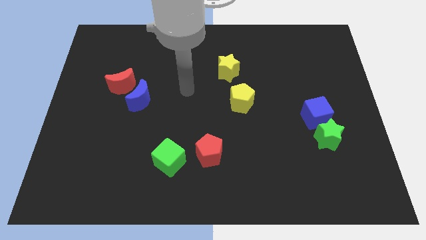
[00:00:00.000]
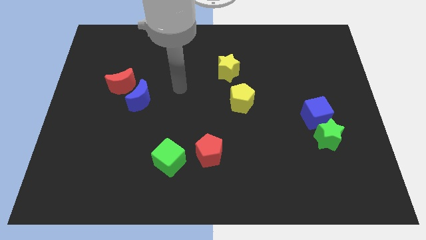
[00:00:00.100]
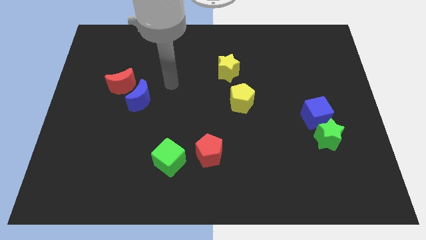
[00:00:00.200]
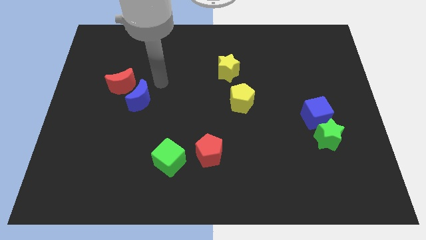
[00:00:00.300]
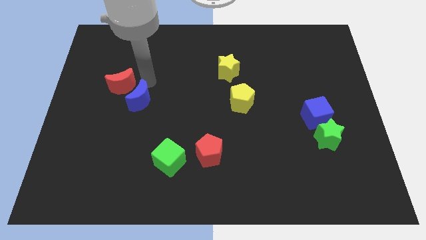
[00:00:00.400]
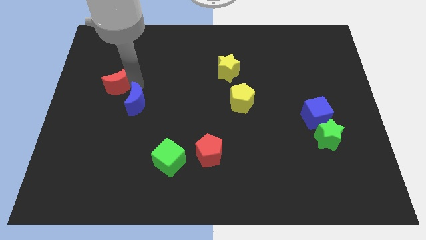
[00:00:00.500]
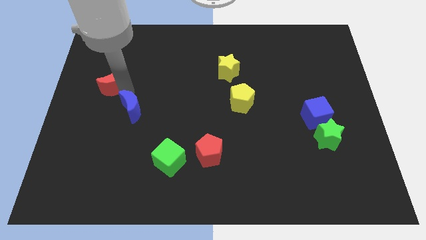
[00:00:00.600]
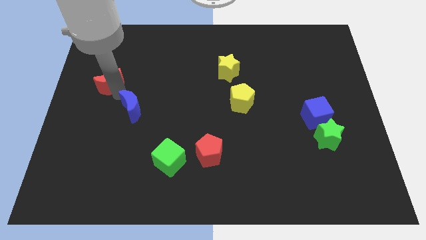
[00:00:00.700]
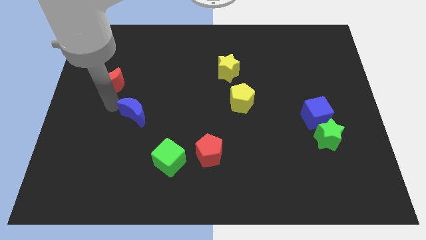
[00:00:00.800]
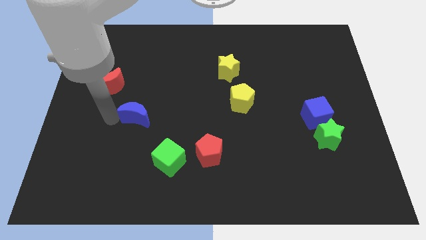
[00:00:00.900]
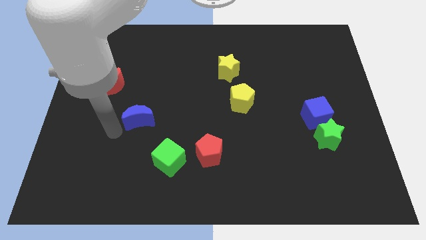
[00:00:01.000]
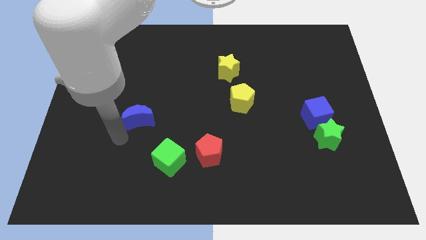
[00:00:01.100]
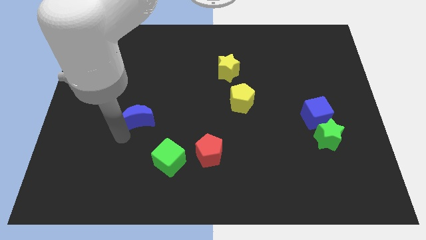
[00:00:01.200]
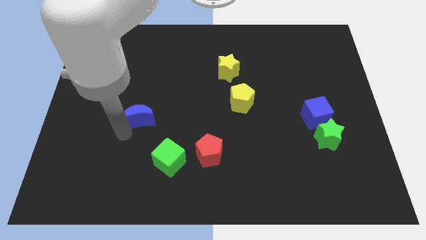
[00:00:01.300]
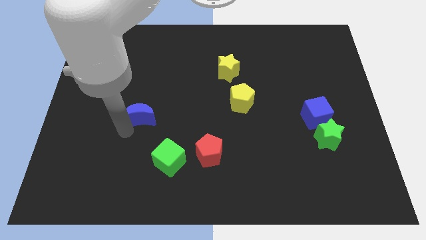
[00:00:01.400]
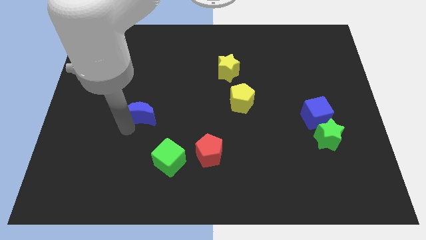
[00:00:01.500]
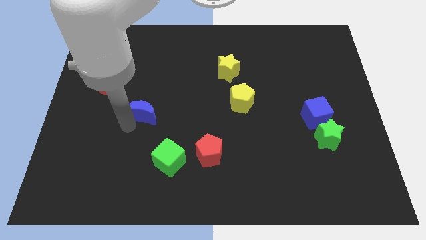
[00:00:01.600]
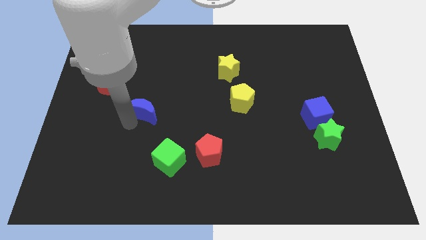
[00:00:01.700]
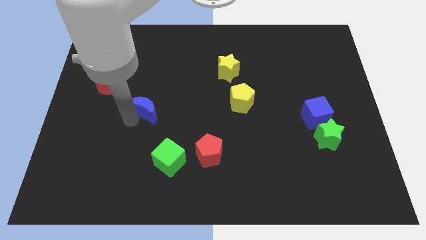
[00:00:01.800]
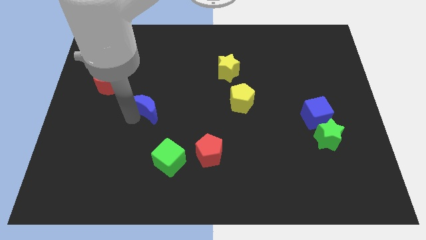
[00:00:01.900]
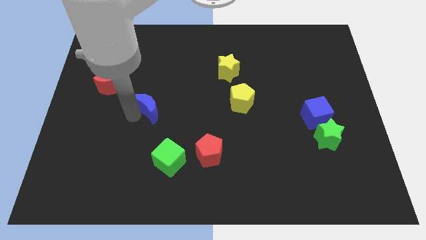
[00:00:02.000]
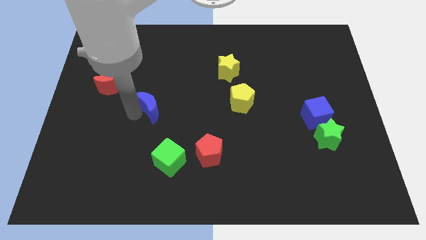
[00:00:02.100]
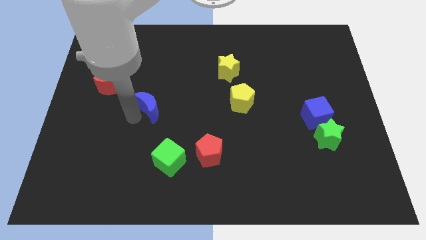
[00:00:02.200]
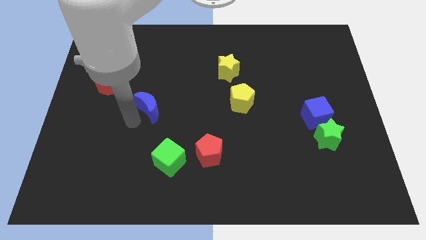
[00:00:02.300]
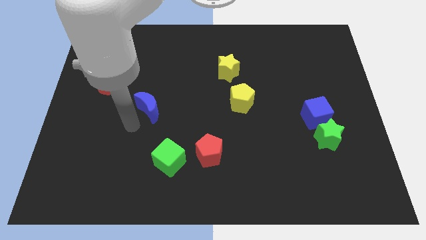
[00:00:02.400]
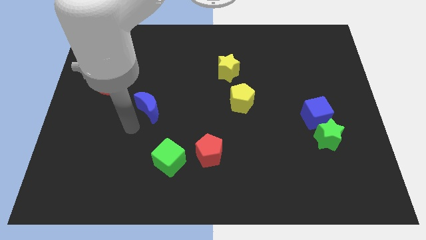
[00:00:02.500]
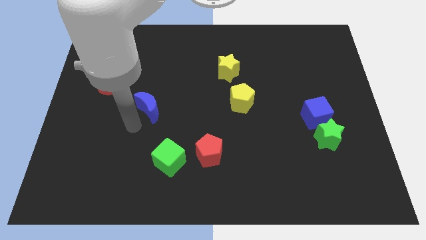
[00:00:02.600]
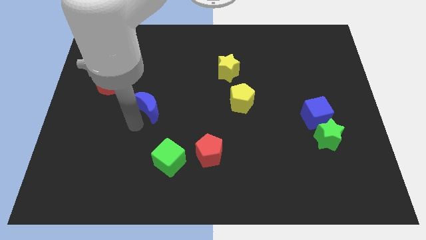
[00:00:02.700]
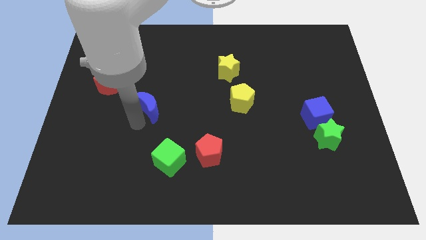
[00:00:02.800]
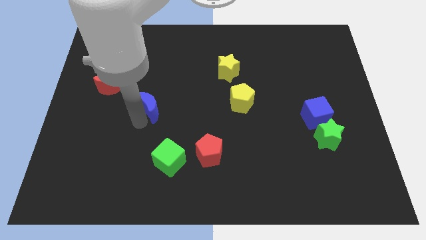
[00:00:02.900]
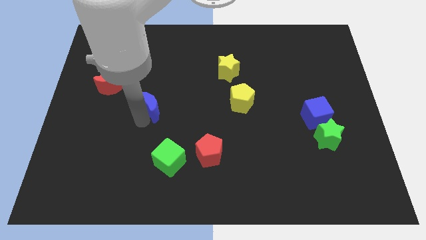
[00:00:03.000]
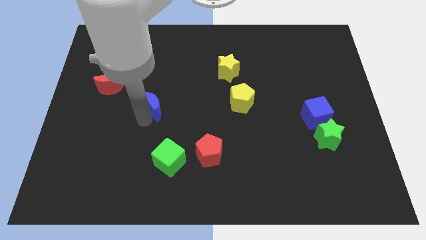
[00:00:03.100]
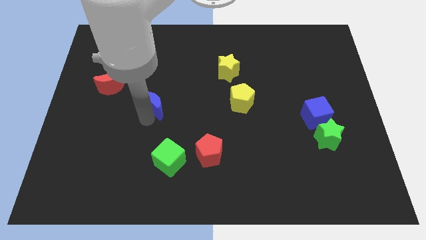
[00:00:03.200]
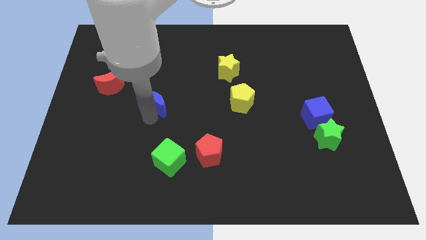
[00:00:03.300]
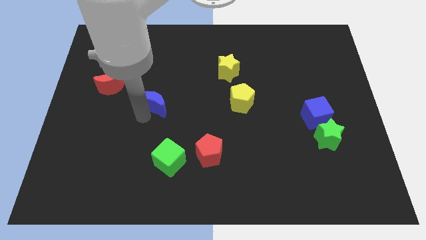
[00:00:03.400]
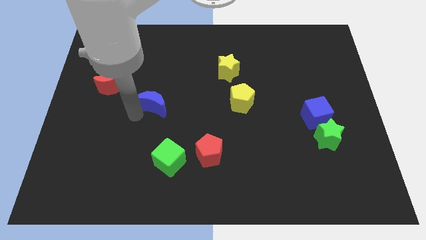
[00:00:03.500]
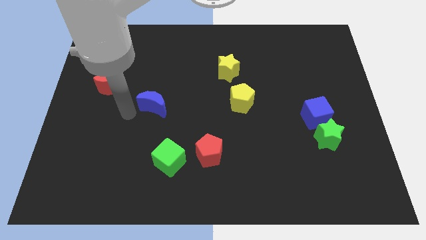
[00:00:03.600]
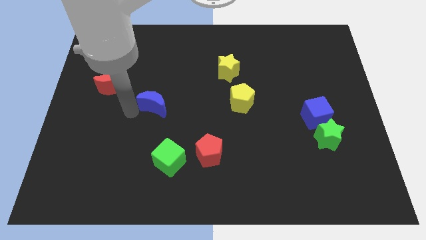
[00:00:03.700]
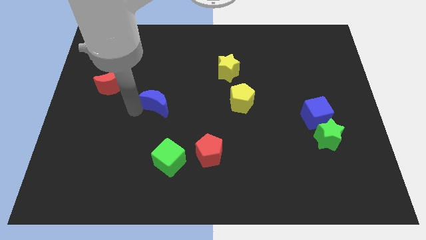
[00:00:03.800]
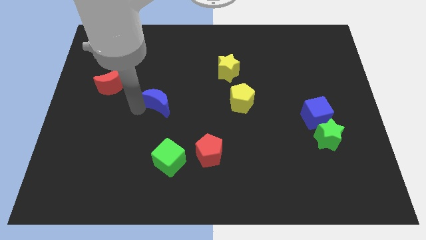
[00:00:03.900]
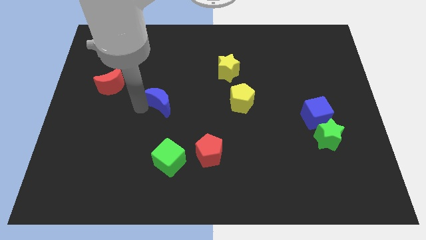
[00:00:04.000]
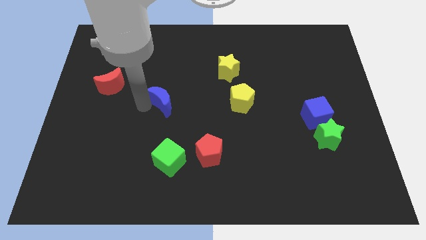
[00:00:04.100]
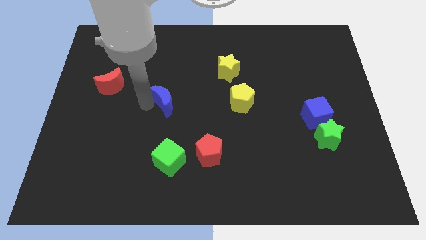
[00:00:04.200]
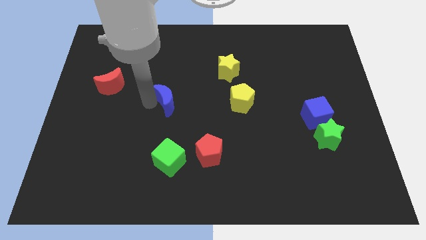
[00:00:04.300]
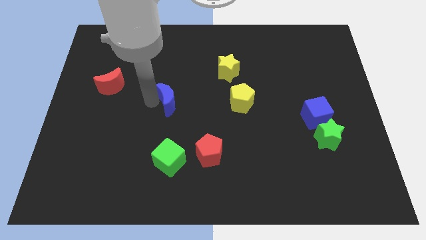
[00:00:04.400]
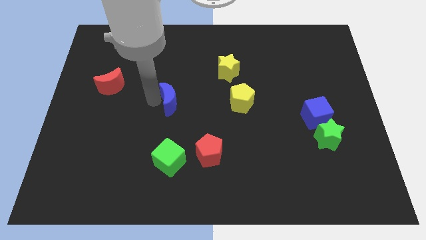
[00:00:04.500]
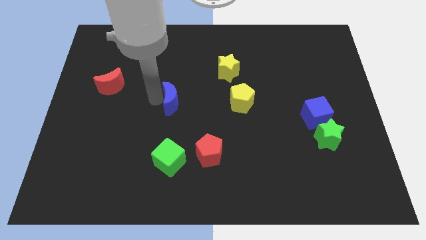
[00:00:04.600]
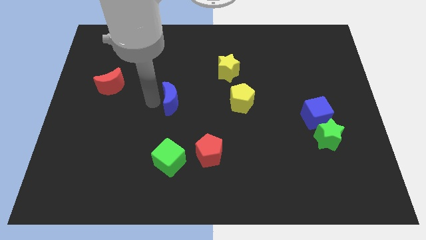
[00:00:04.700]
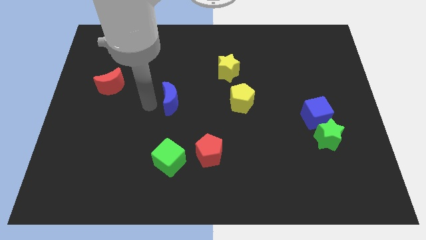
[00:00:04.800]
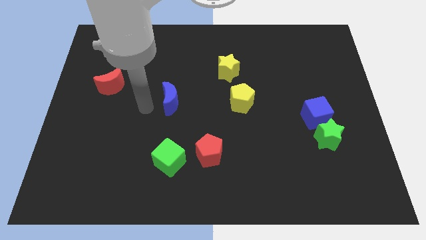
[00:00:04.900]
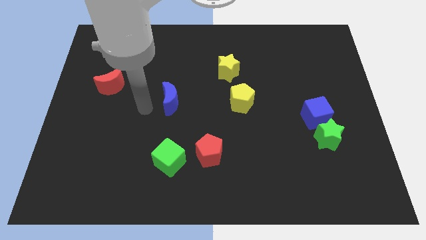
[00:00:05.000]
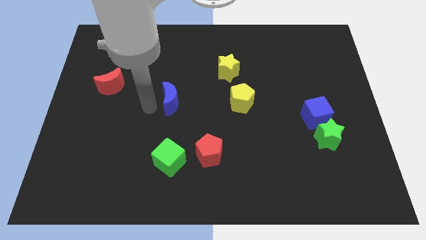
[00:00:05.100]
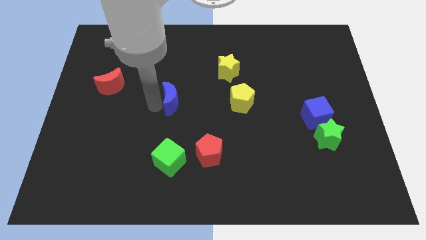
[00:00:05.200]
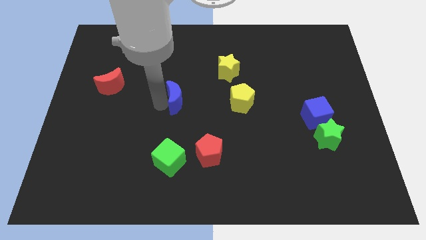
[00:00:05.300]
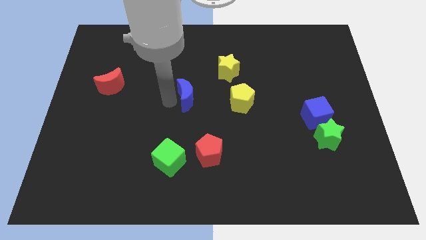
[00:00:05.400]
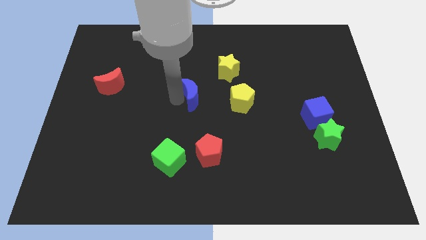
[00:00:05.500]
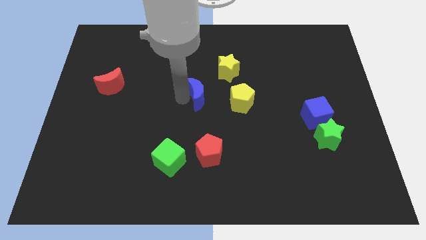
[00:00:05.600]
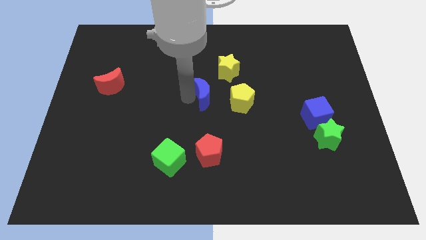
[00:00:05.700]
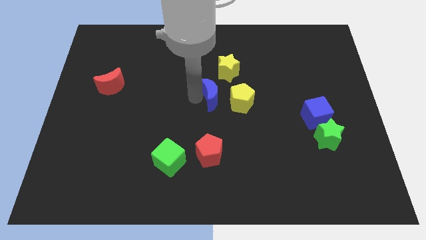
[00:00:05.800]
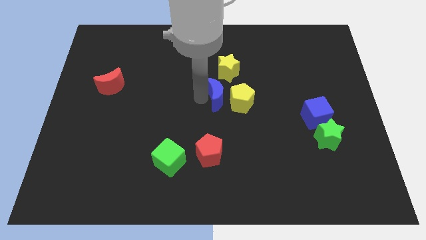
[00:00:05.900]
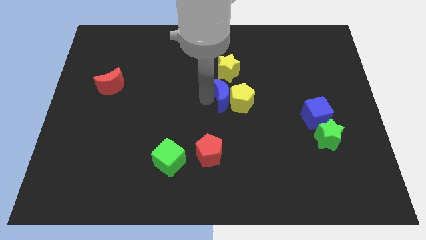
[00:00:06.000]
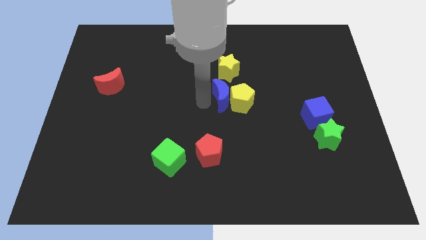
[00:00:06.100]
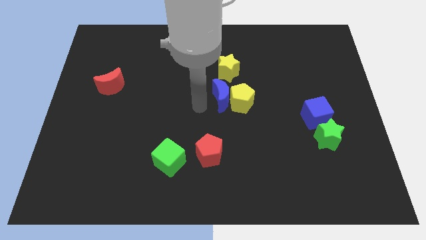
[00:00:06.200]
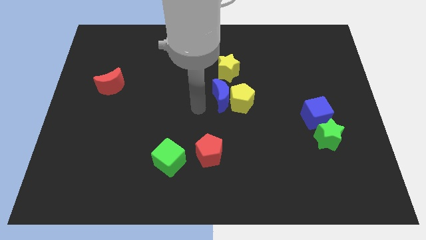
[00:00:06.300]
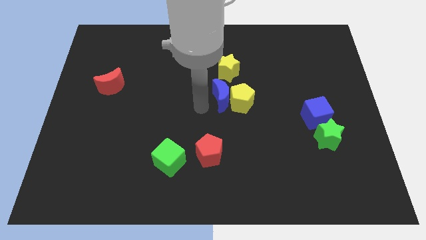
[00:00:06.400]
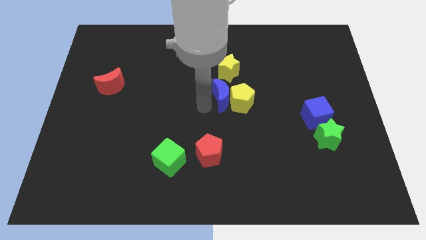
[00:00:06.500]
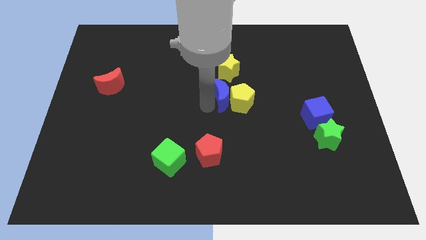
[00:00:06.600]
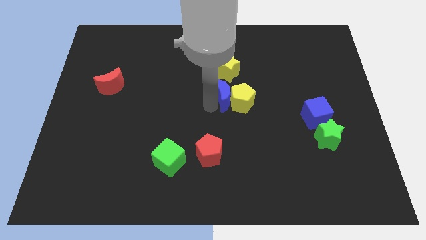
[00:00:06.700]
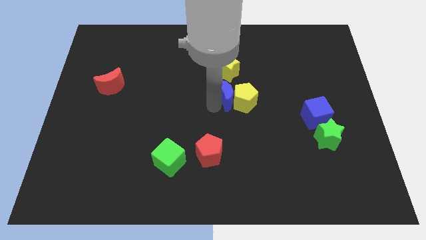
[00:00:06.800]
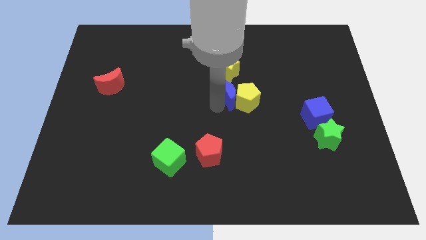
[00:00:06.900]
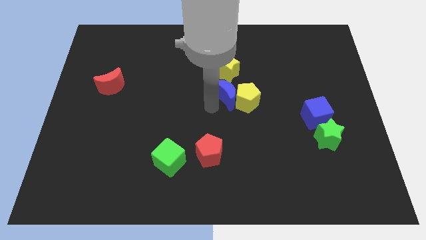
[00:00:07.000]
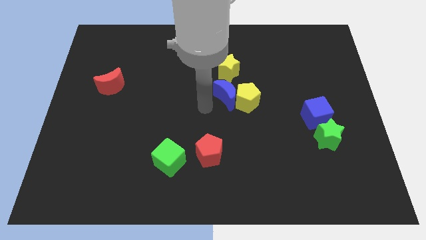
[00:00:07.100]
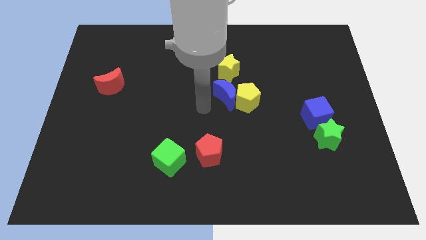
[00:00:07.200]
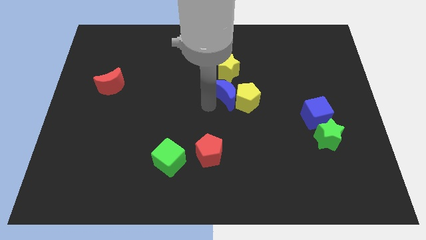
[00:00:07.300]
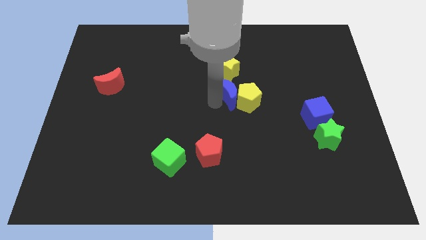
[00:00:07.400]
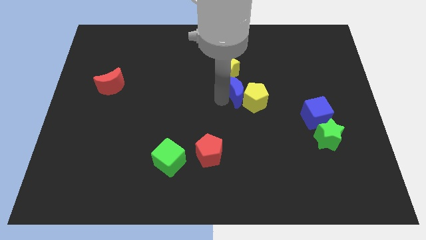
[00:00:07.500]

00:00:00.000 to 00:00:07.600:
slide the blue moon diagonally down and to the right of the yellow star
